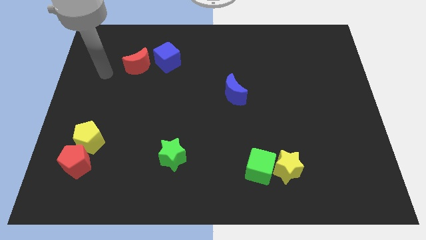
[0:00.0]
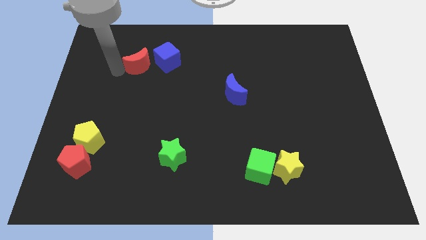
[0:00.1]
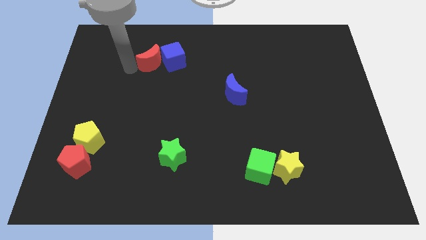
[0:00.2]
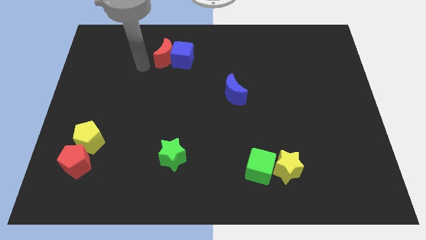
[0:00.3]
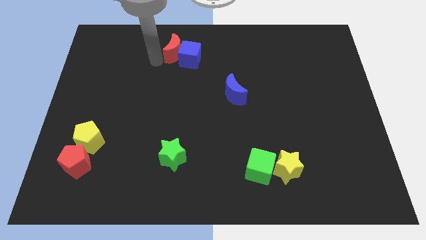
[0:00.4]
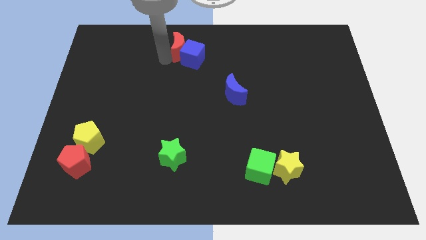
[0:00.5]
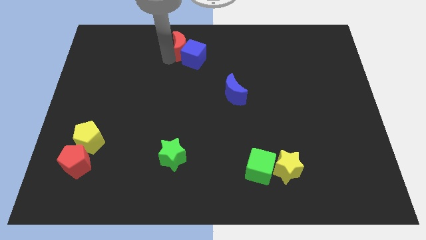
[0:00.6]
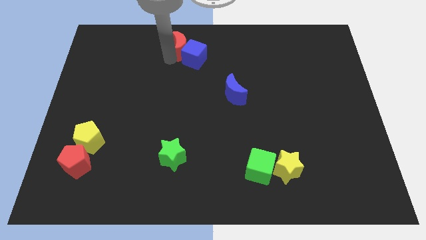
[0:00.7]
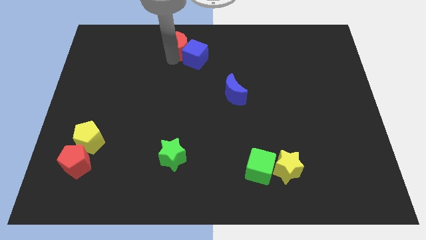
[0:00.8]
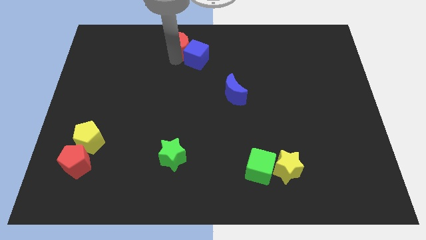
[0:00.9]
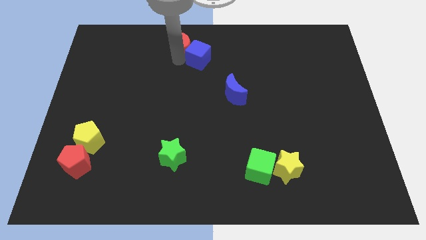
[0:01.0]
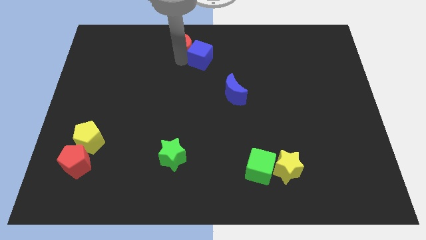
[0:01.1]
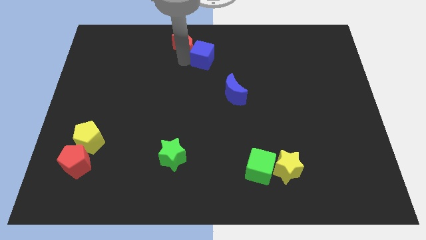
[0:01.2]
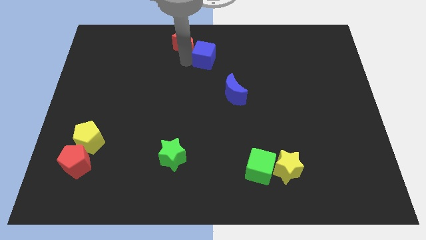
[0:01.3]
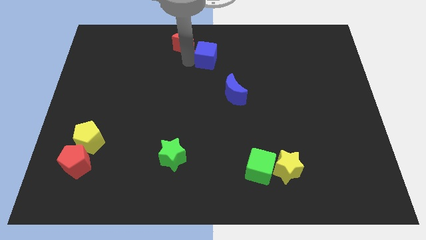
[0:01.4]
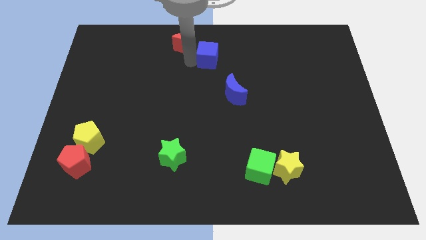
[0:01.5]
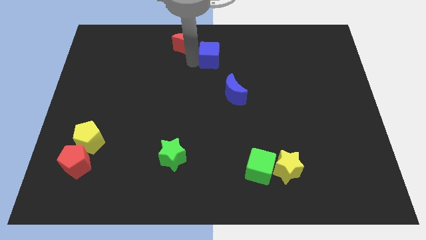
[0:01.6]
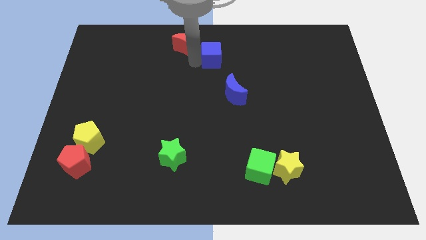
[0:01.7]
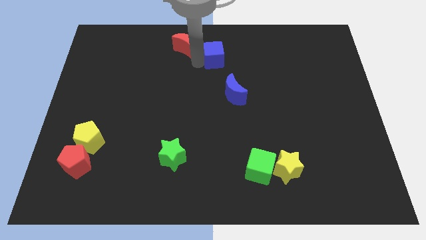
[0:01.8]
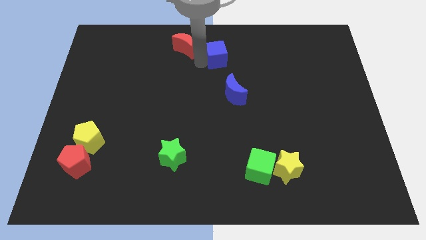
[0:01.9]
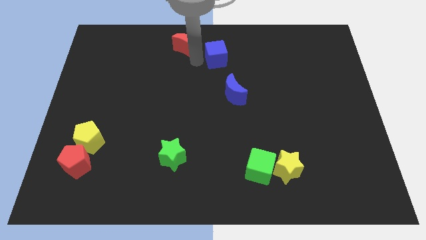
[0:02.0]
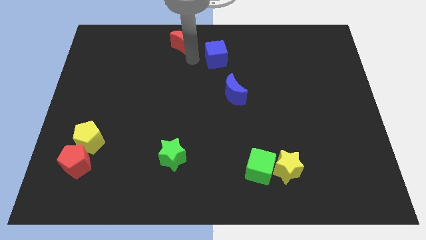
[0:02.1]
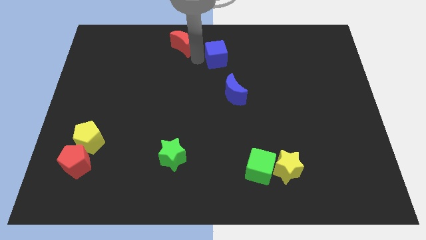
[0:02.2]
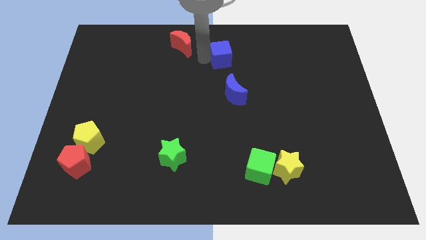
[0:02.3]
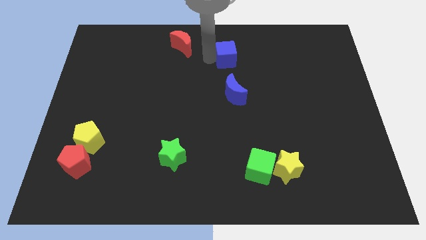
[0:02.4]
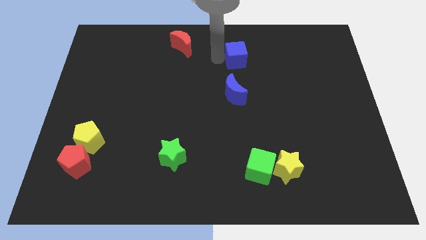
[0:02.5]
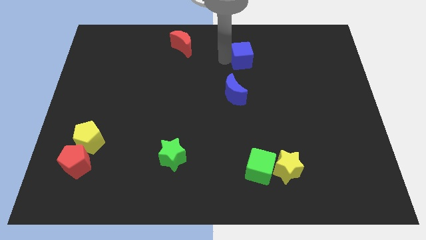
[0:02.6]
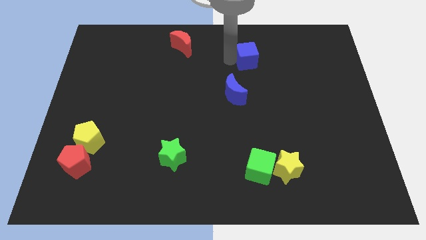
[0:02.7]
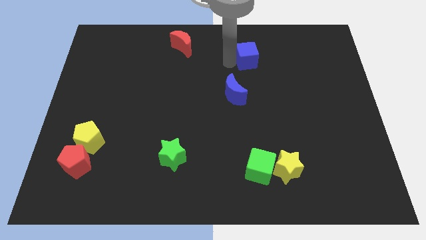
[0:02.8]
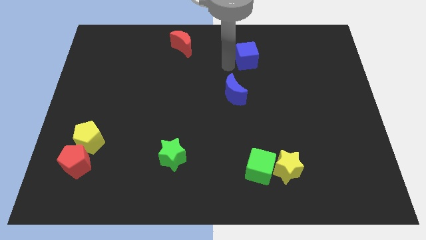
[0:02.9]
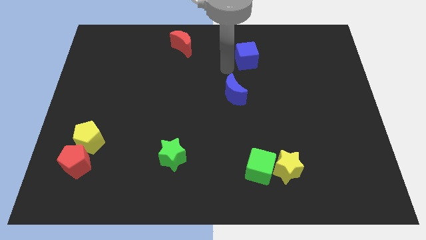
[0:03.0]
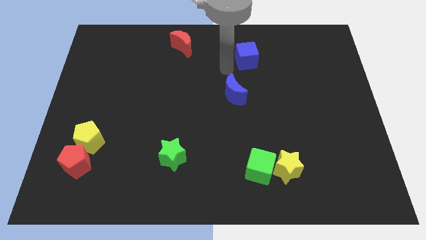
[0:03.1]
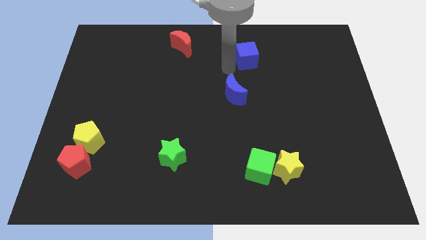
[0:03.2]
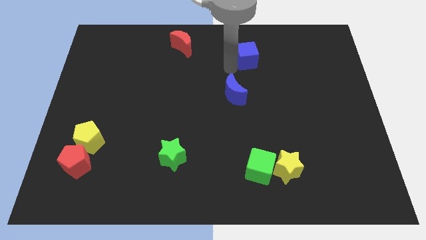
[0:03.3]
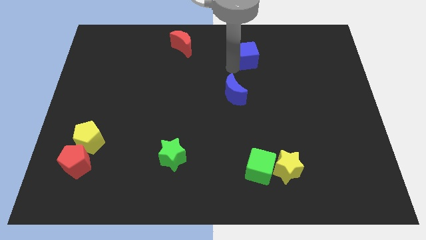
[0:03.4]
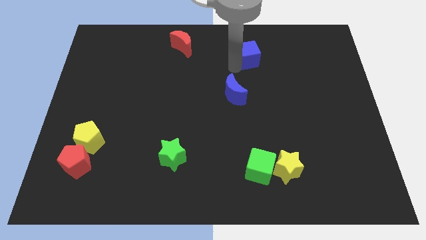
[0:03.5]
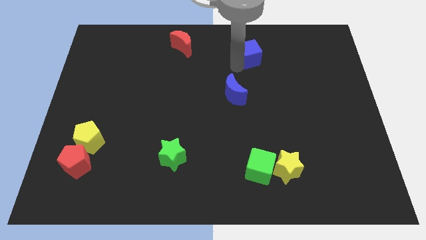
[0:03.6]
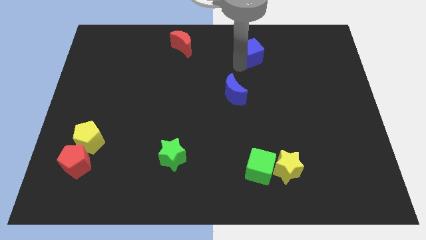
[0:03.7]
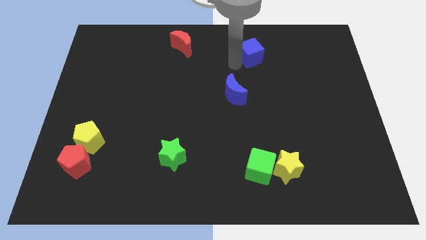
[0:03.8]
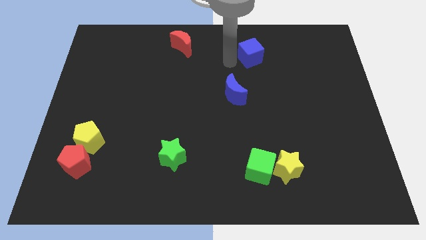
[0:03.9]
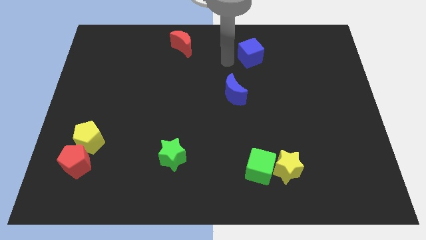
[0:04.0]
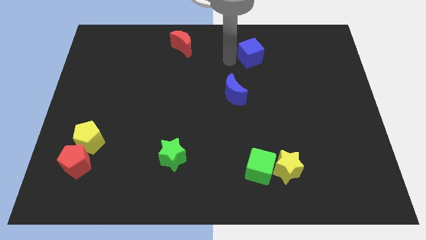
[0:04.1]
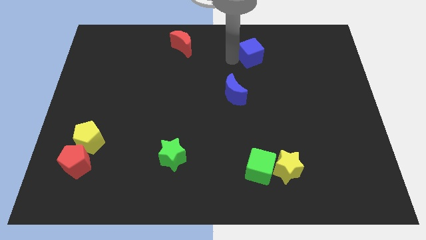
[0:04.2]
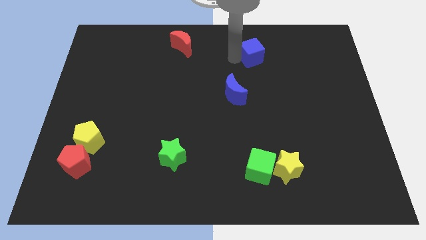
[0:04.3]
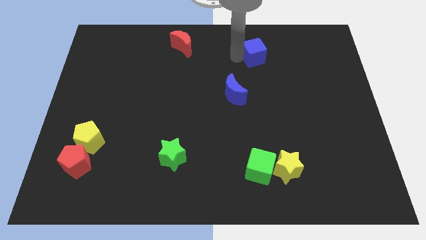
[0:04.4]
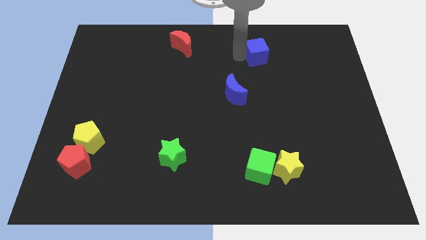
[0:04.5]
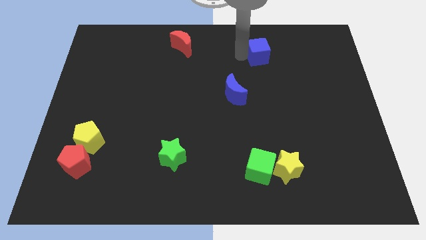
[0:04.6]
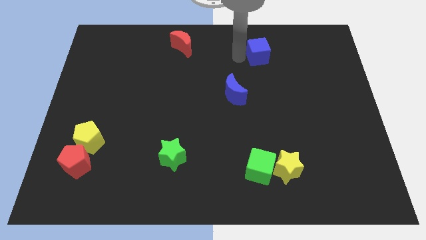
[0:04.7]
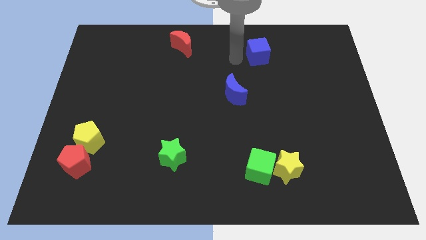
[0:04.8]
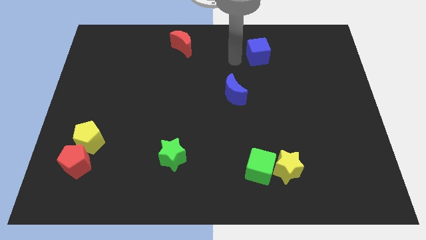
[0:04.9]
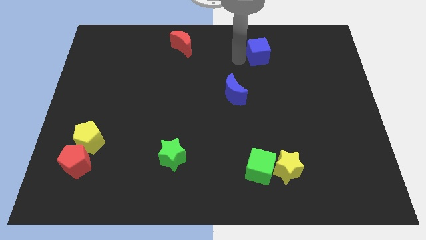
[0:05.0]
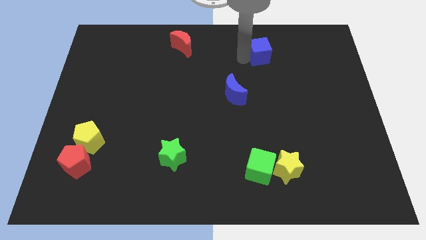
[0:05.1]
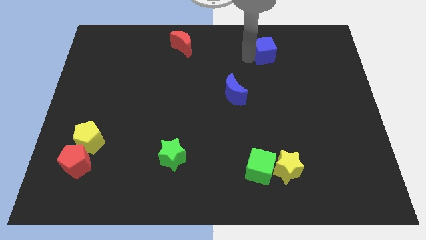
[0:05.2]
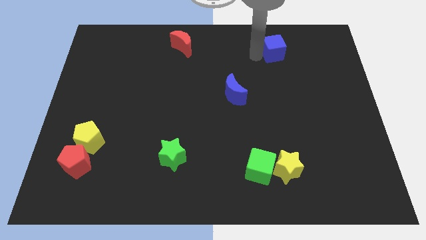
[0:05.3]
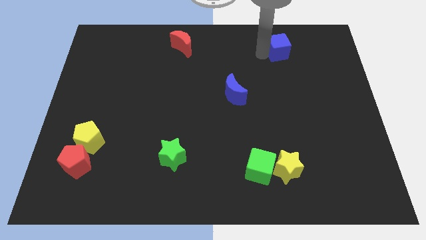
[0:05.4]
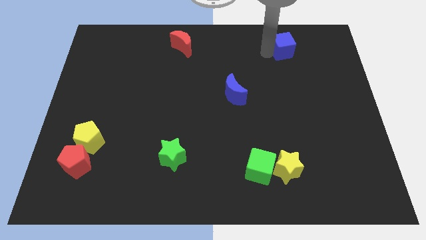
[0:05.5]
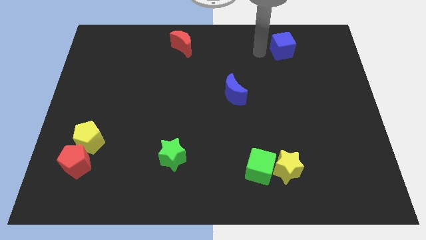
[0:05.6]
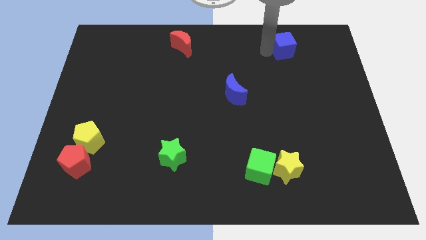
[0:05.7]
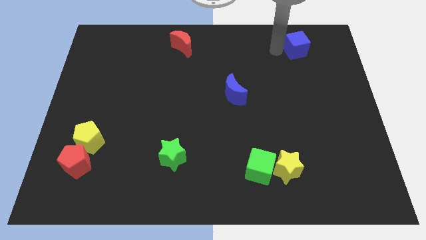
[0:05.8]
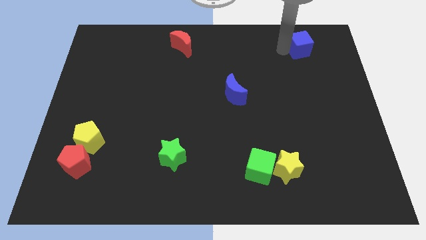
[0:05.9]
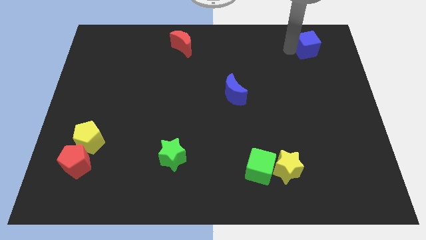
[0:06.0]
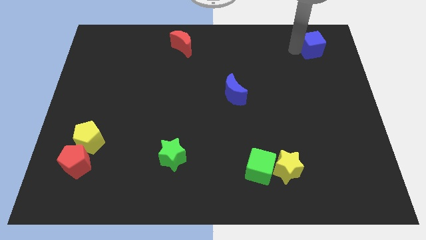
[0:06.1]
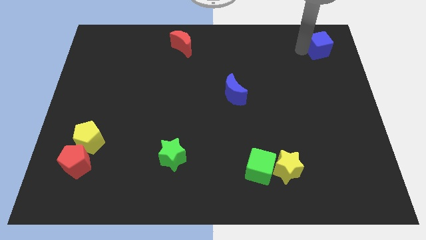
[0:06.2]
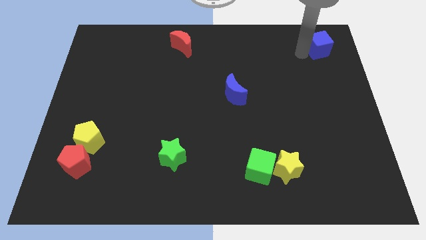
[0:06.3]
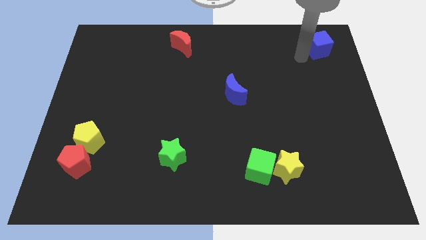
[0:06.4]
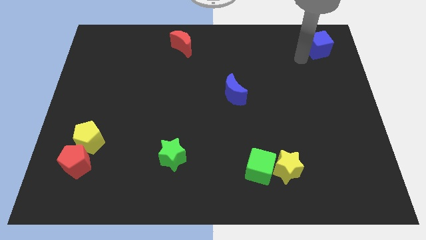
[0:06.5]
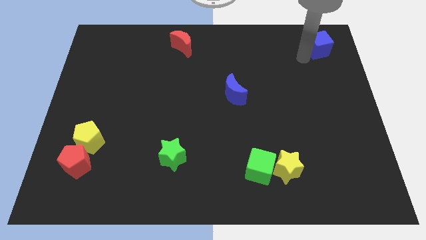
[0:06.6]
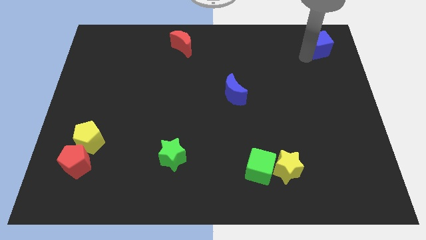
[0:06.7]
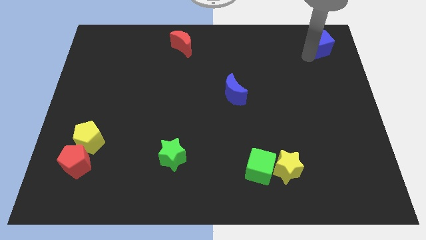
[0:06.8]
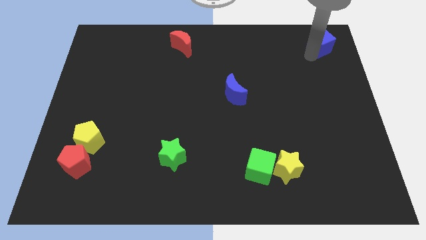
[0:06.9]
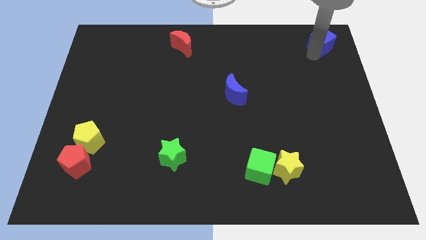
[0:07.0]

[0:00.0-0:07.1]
slide the blue cube to the top right corner

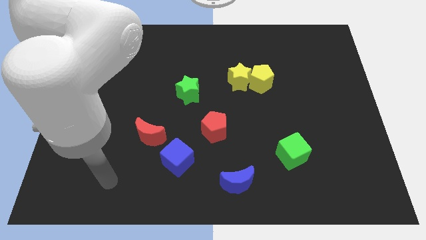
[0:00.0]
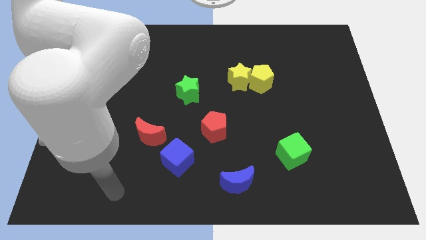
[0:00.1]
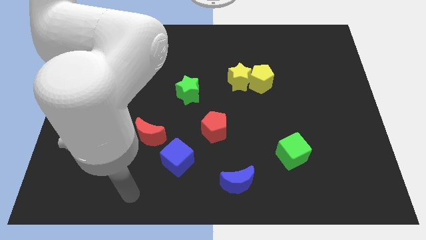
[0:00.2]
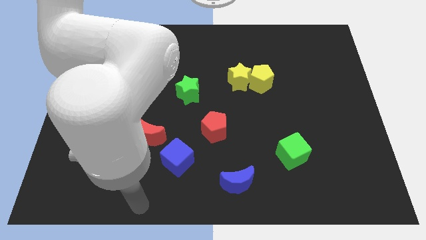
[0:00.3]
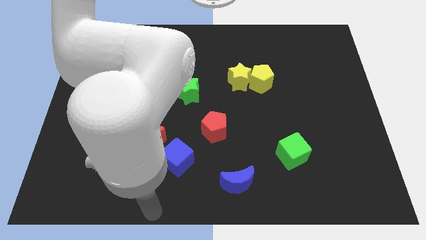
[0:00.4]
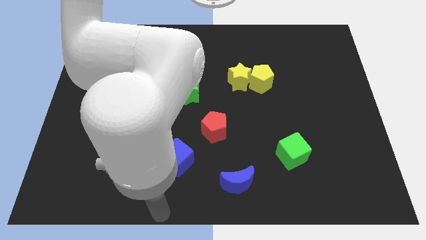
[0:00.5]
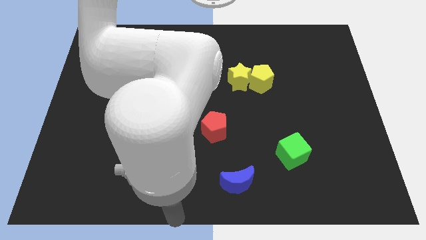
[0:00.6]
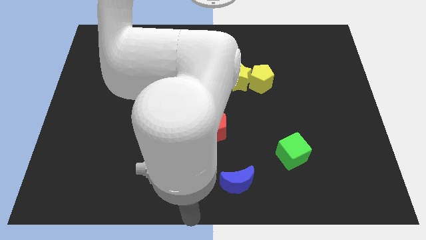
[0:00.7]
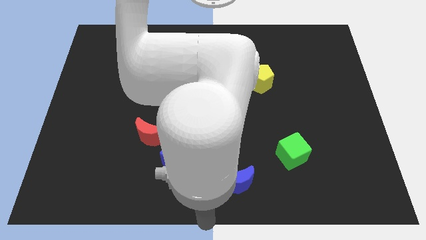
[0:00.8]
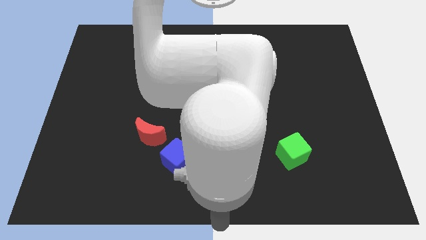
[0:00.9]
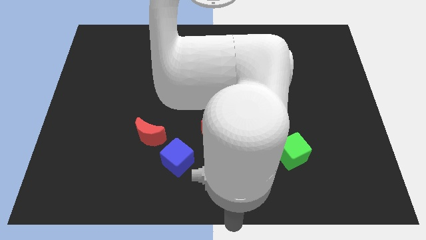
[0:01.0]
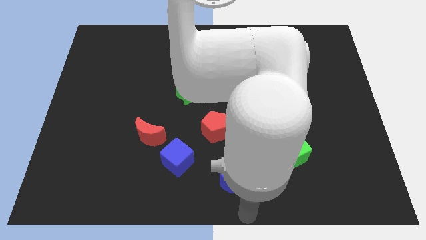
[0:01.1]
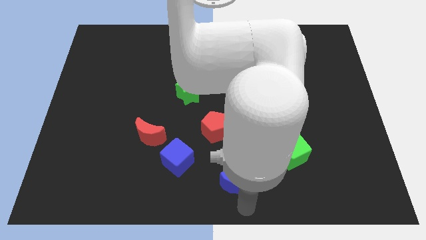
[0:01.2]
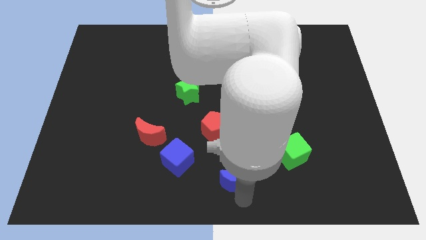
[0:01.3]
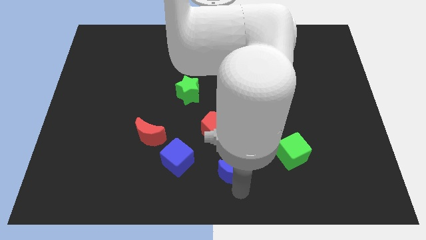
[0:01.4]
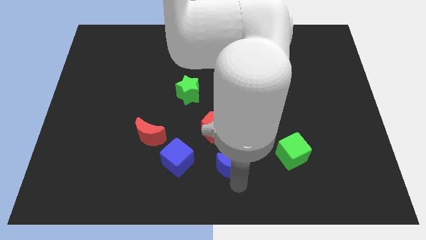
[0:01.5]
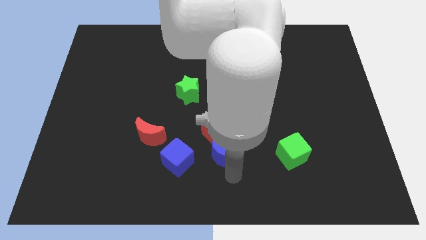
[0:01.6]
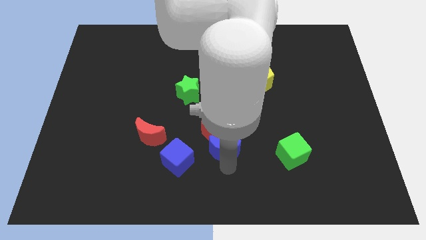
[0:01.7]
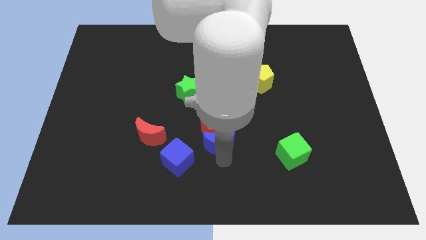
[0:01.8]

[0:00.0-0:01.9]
slide the blue moon to the center of the board
